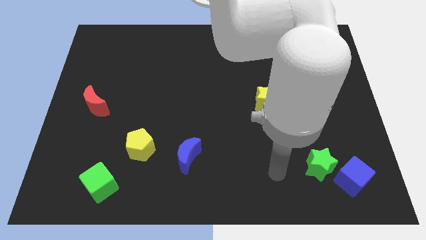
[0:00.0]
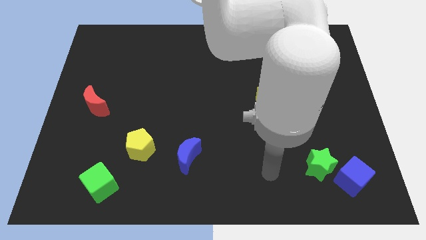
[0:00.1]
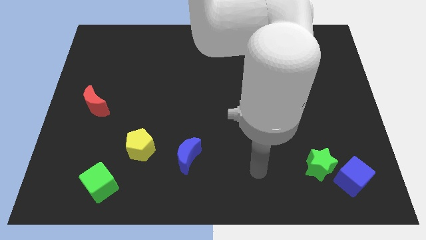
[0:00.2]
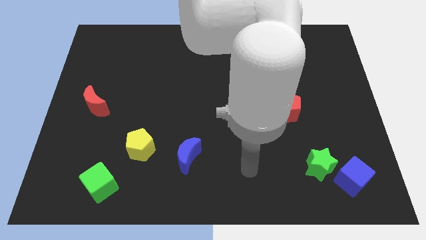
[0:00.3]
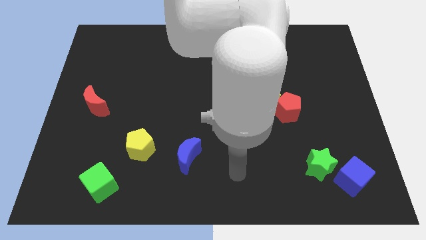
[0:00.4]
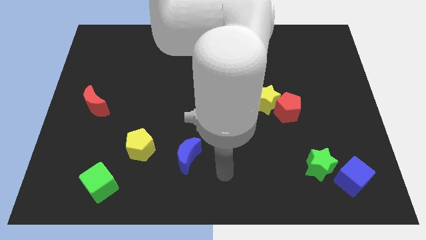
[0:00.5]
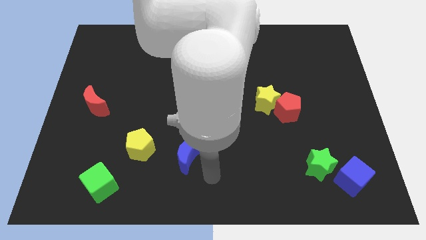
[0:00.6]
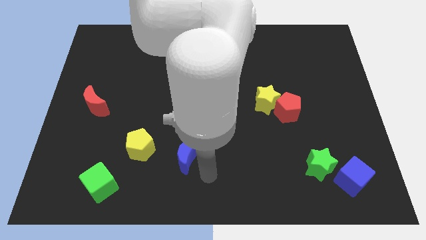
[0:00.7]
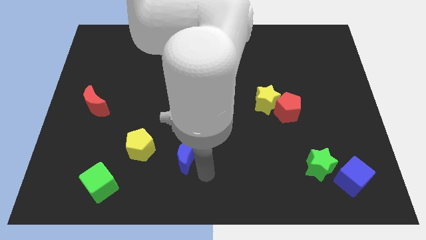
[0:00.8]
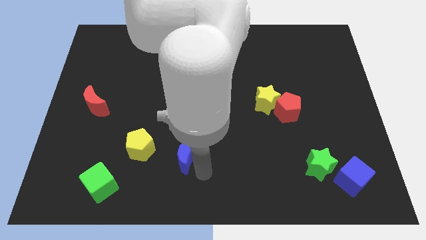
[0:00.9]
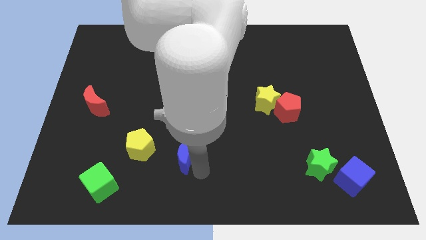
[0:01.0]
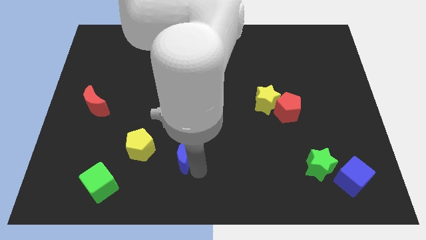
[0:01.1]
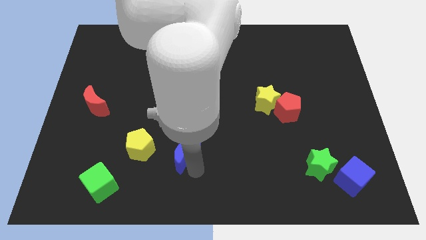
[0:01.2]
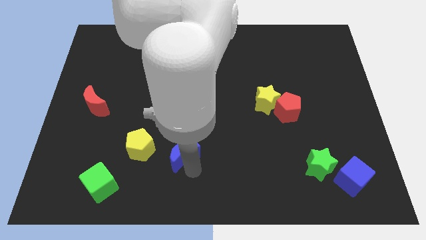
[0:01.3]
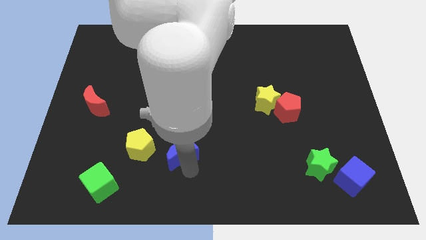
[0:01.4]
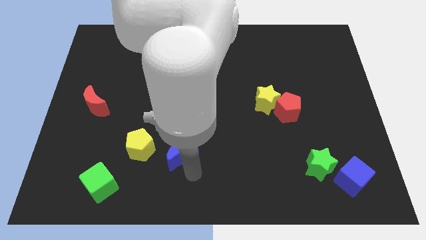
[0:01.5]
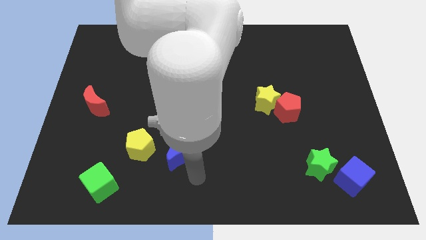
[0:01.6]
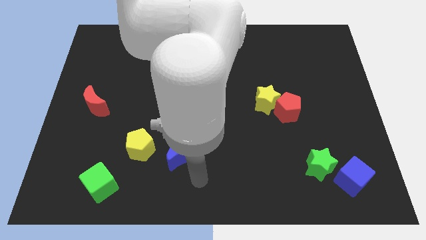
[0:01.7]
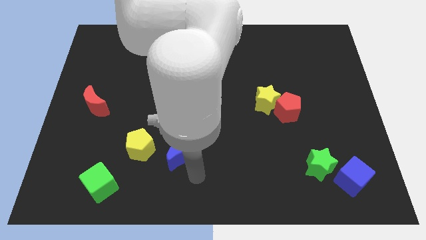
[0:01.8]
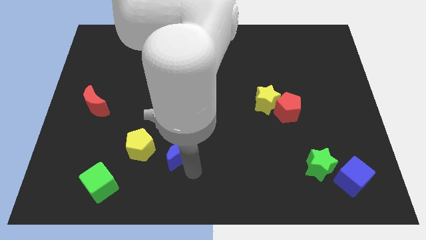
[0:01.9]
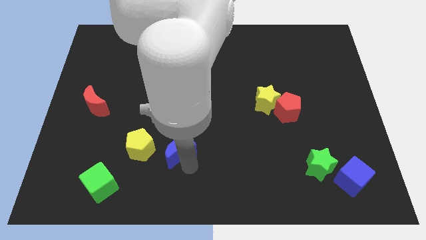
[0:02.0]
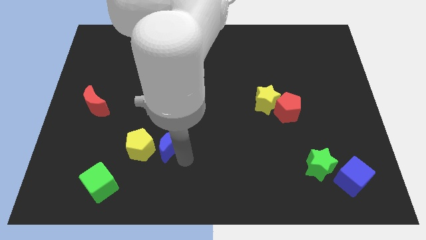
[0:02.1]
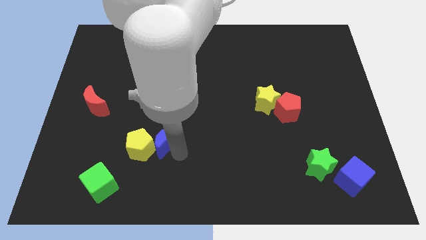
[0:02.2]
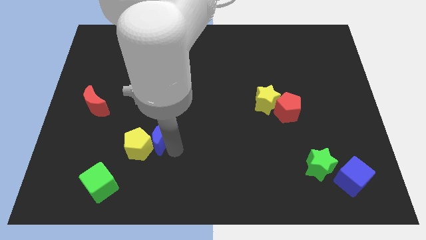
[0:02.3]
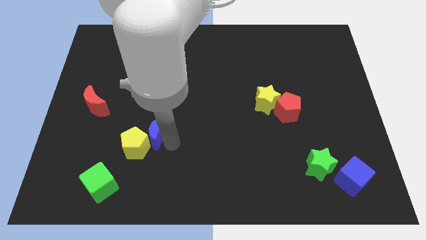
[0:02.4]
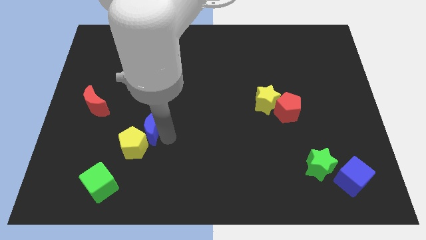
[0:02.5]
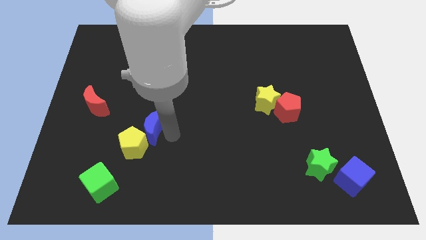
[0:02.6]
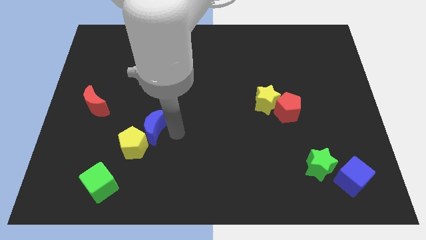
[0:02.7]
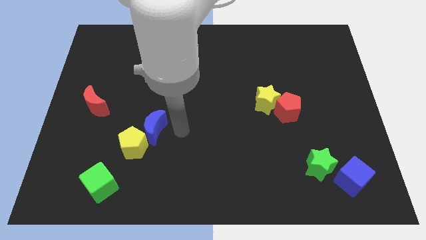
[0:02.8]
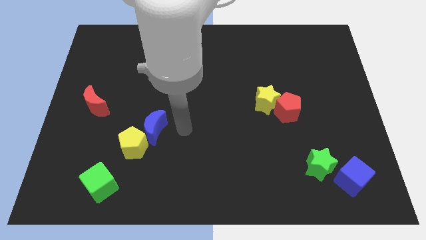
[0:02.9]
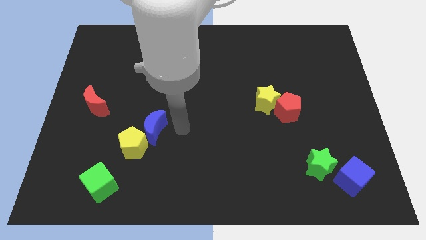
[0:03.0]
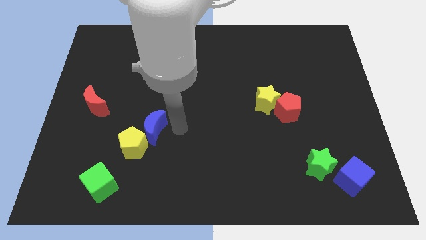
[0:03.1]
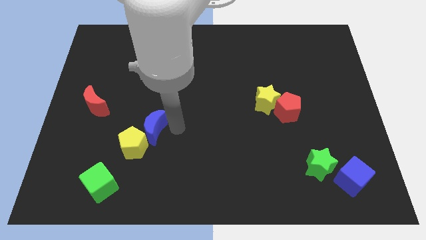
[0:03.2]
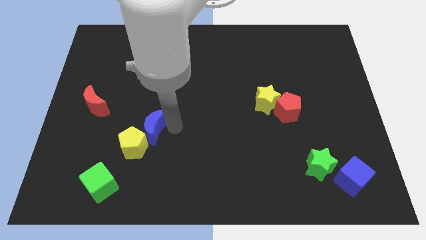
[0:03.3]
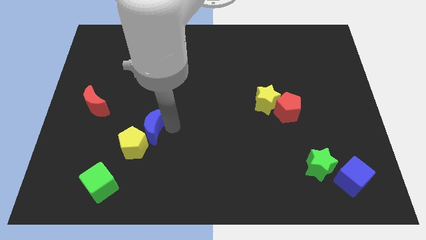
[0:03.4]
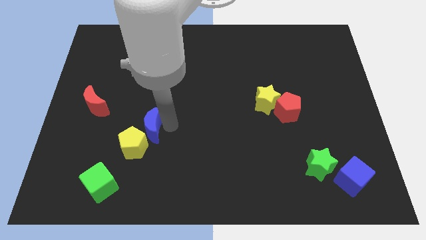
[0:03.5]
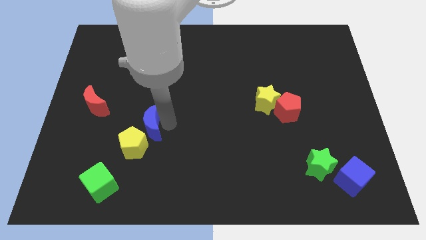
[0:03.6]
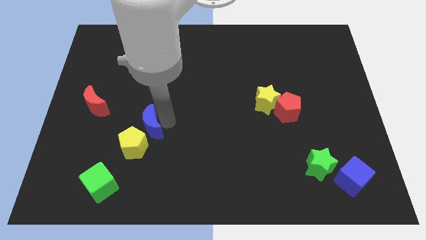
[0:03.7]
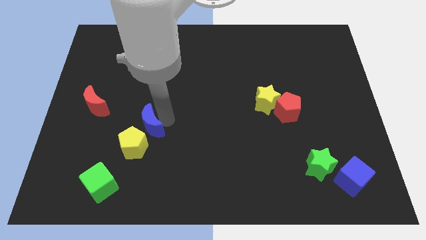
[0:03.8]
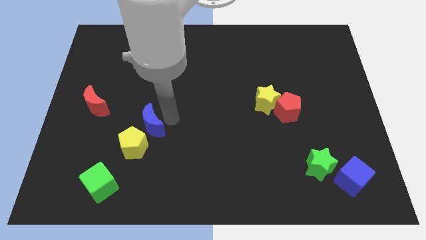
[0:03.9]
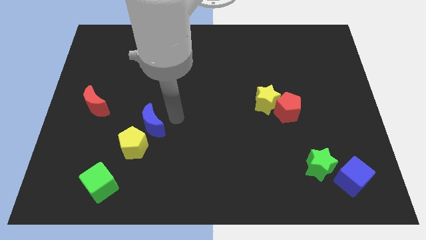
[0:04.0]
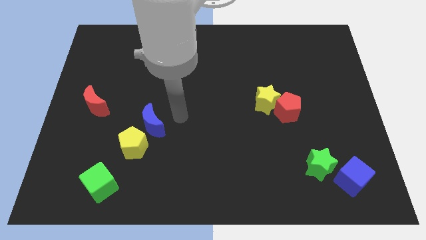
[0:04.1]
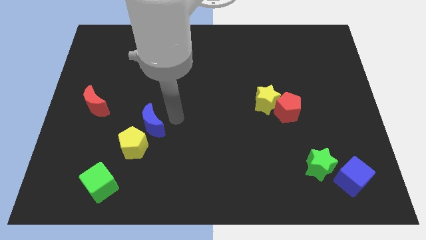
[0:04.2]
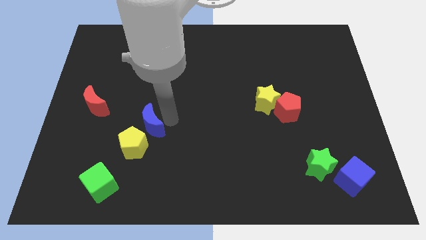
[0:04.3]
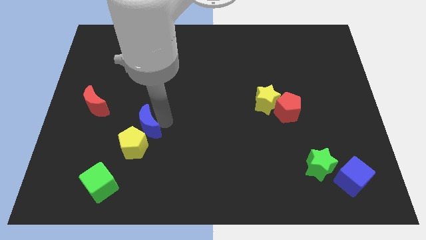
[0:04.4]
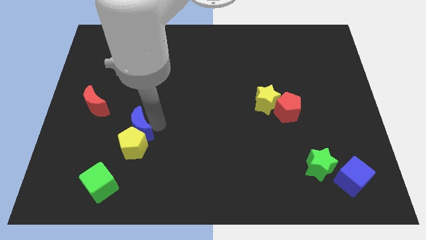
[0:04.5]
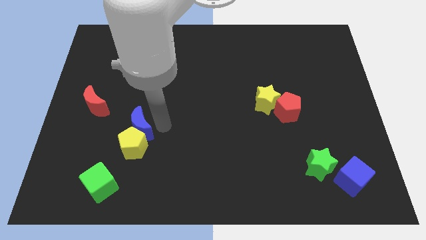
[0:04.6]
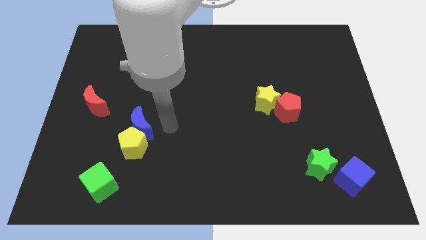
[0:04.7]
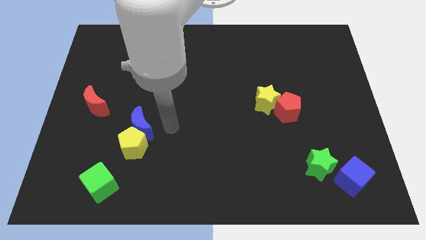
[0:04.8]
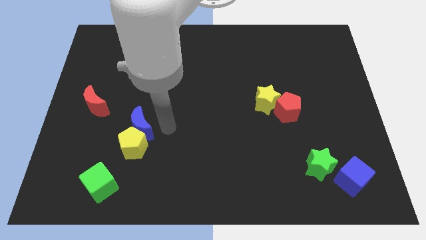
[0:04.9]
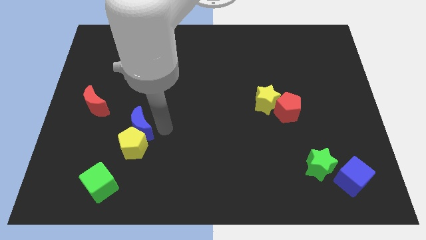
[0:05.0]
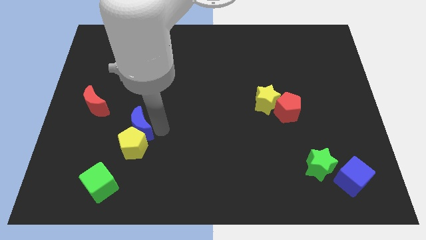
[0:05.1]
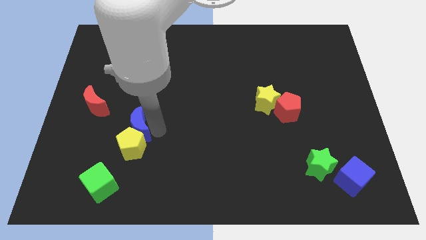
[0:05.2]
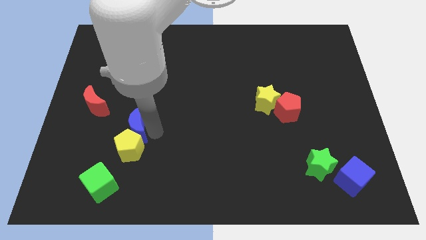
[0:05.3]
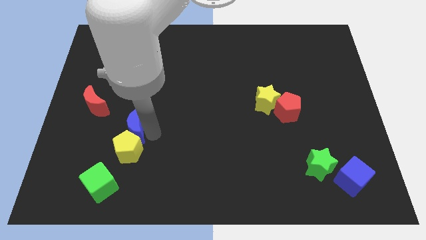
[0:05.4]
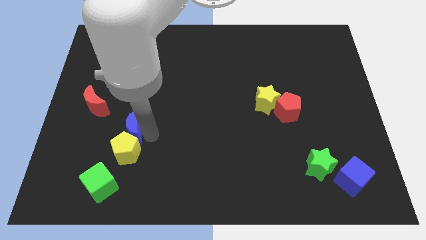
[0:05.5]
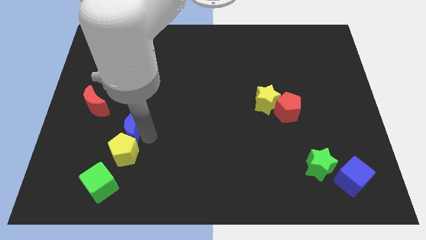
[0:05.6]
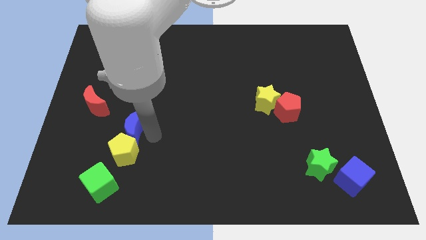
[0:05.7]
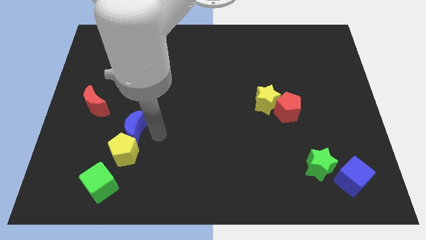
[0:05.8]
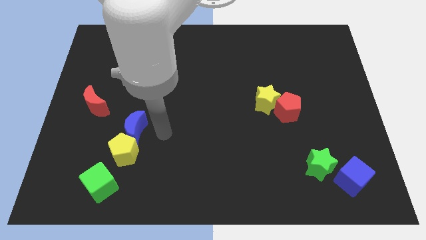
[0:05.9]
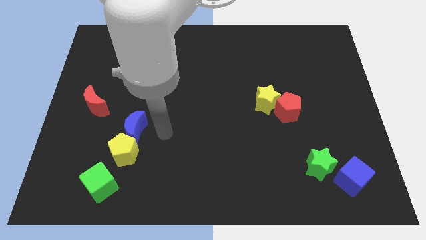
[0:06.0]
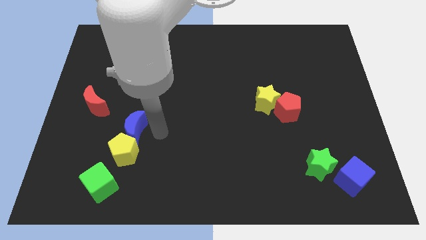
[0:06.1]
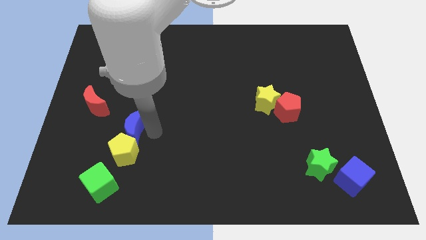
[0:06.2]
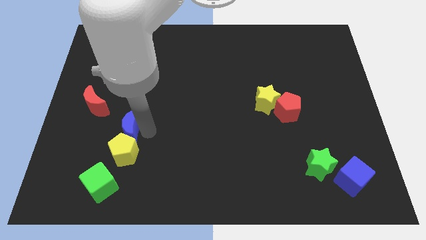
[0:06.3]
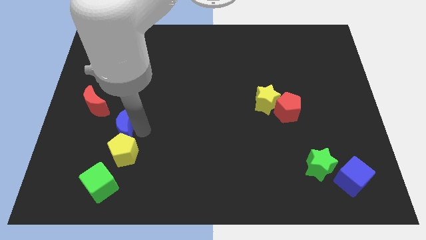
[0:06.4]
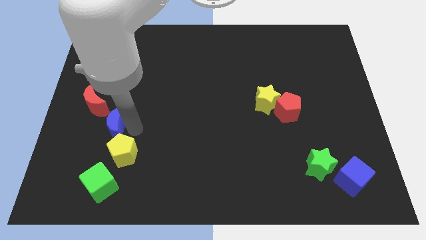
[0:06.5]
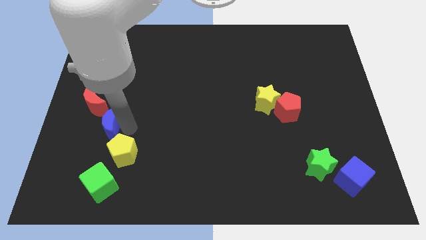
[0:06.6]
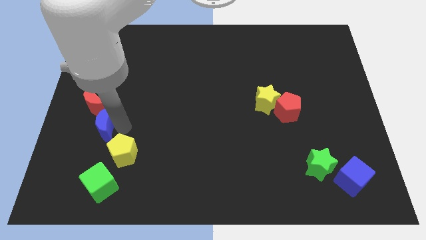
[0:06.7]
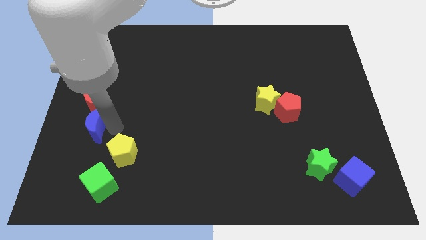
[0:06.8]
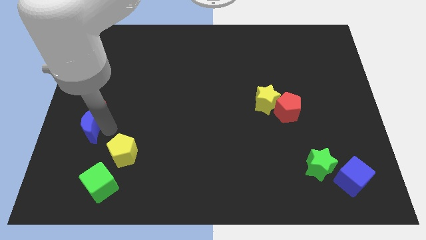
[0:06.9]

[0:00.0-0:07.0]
slide the blue moon to the center left
